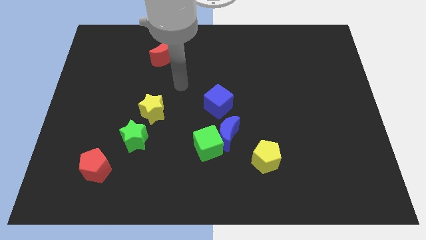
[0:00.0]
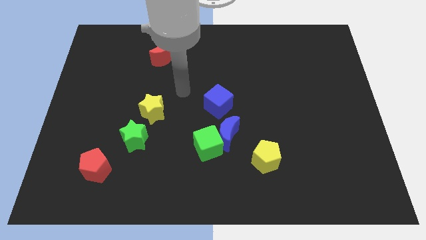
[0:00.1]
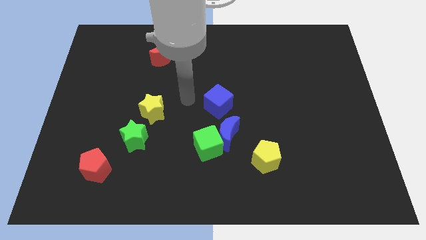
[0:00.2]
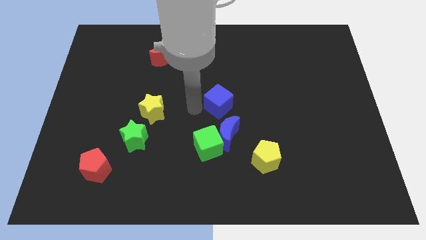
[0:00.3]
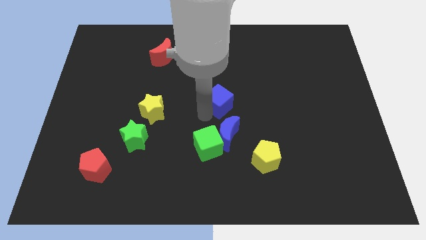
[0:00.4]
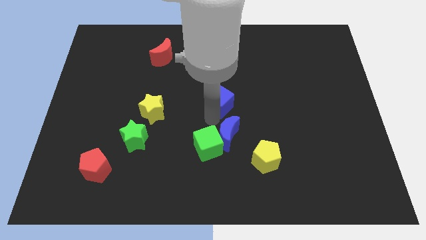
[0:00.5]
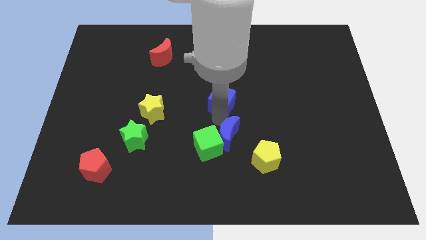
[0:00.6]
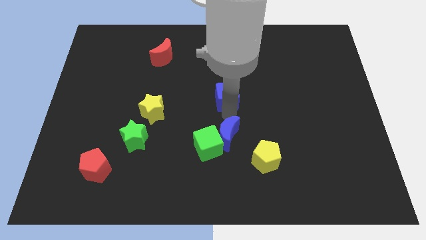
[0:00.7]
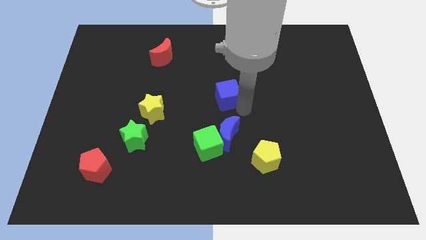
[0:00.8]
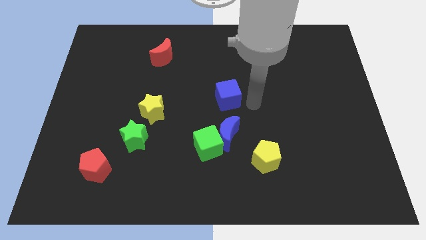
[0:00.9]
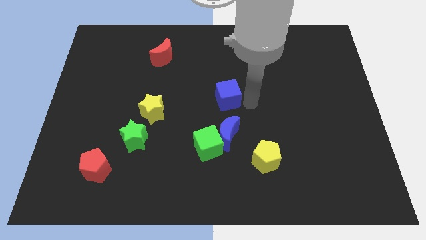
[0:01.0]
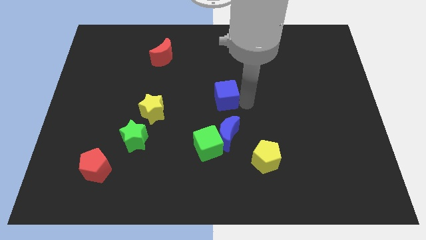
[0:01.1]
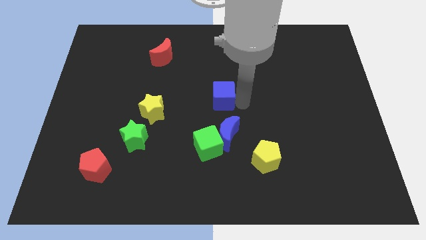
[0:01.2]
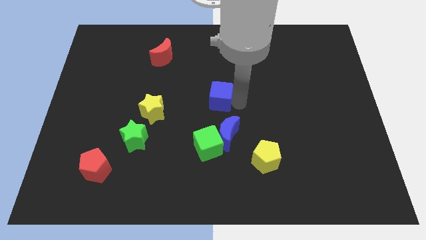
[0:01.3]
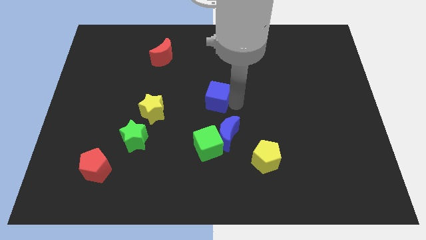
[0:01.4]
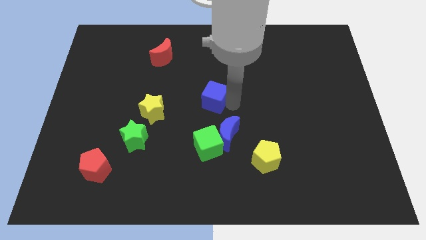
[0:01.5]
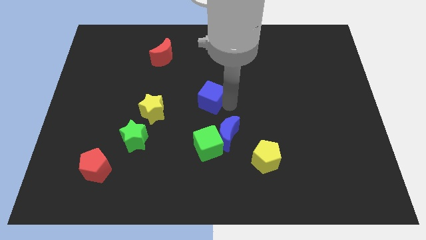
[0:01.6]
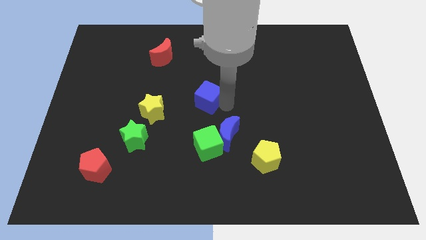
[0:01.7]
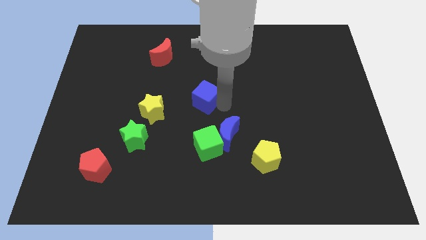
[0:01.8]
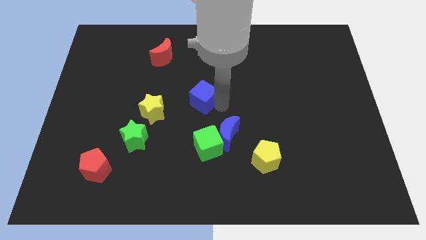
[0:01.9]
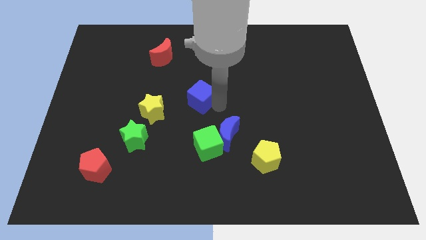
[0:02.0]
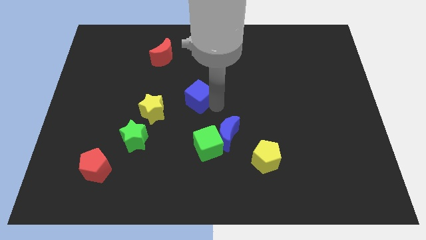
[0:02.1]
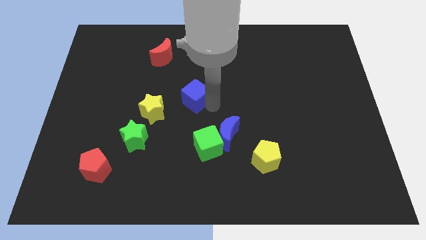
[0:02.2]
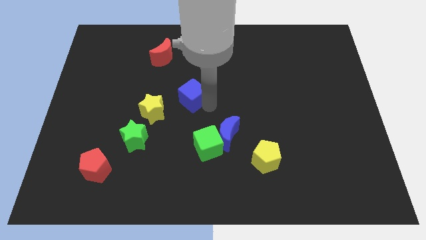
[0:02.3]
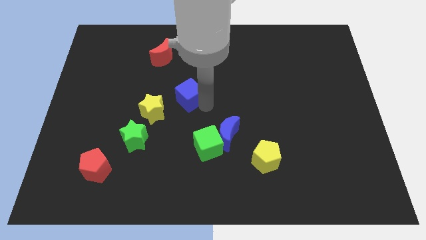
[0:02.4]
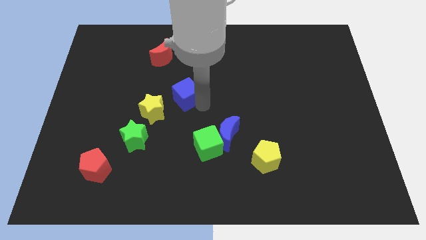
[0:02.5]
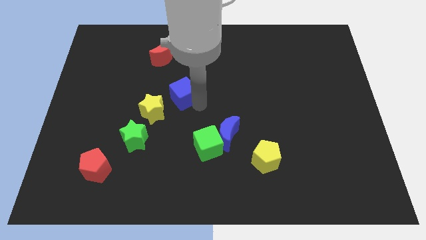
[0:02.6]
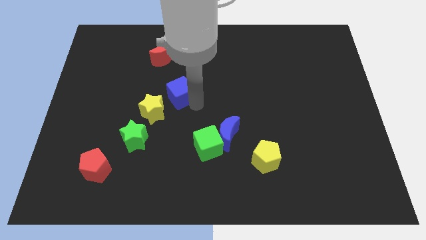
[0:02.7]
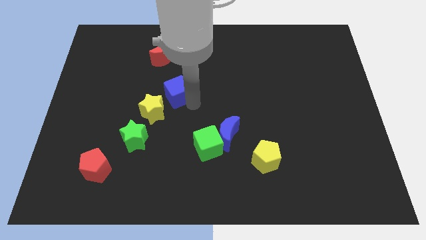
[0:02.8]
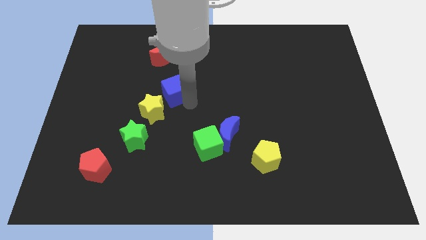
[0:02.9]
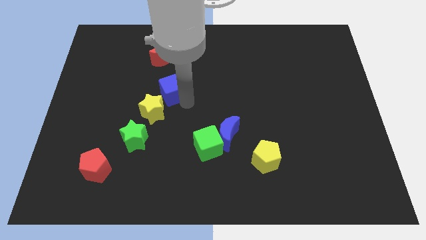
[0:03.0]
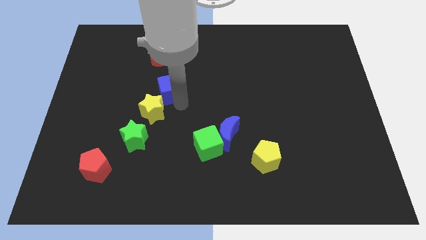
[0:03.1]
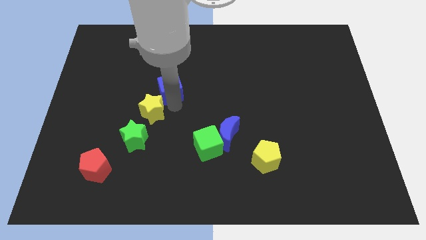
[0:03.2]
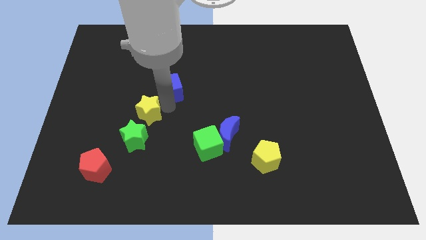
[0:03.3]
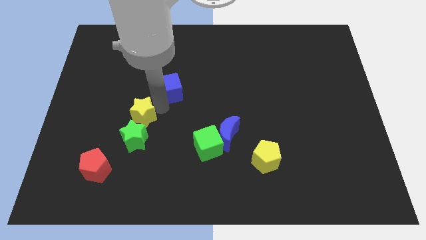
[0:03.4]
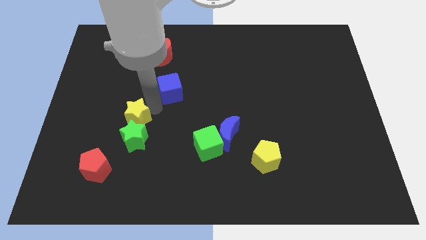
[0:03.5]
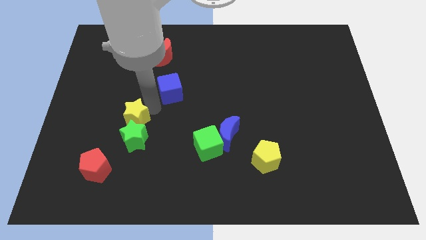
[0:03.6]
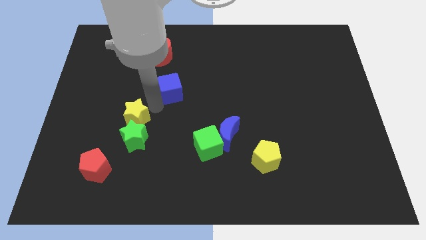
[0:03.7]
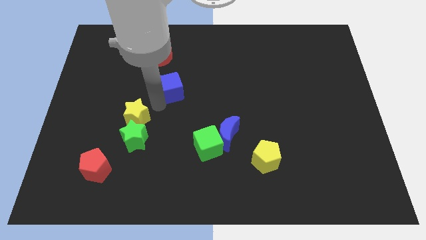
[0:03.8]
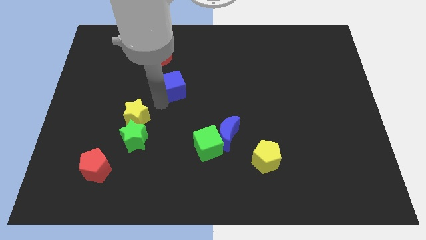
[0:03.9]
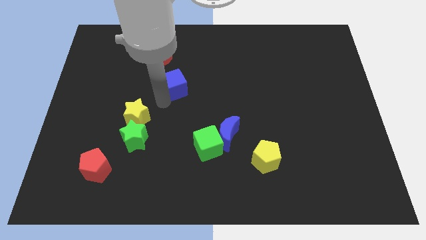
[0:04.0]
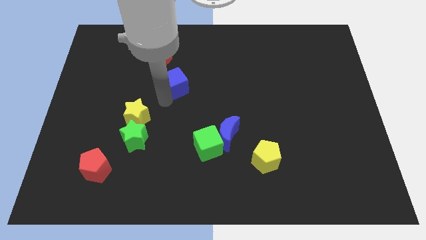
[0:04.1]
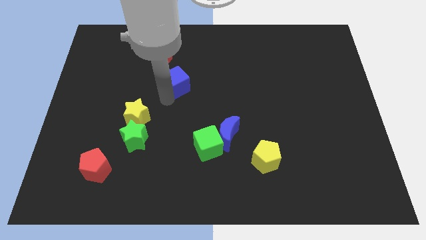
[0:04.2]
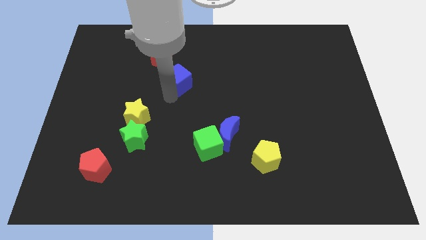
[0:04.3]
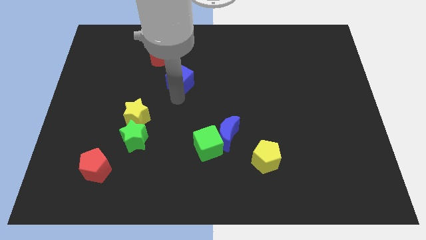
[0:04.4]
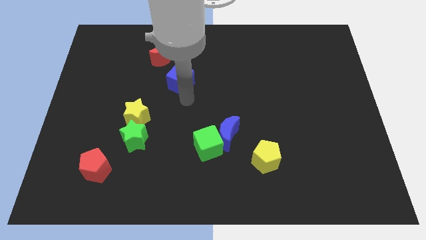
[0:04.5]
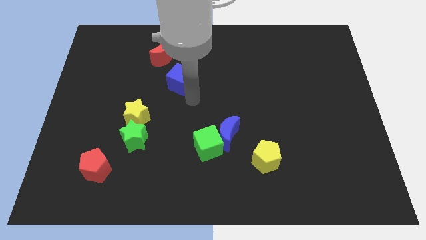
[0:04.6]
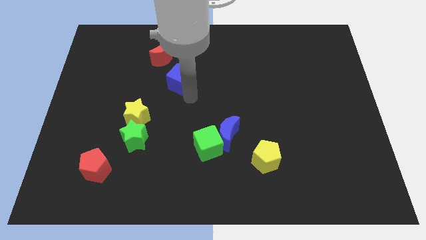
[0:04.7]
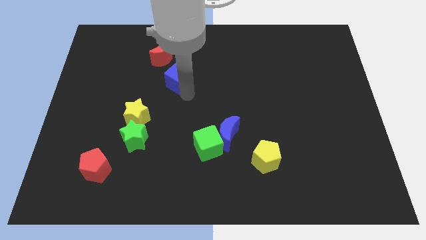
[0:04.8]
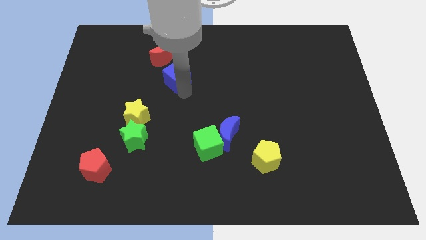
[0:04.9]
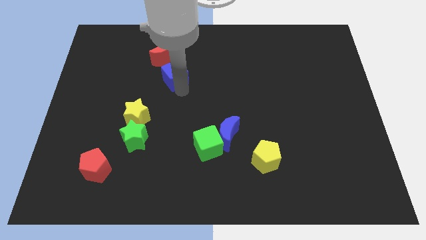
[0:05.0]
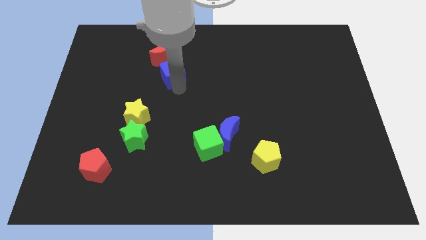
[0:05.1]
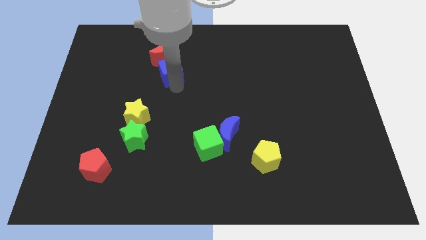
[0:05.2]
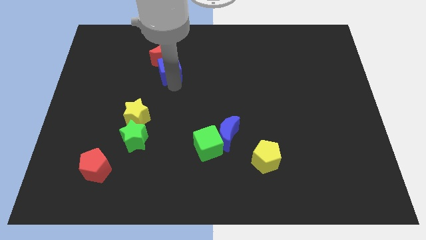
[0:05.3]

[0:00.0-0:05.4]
move the blue cube to the red moon

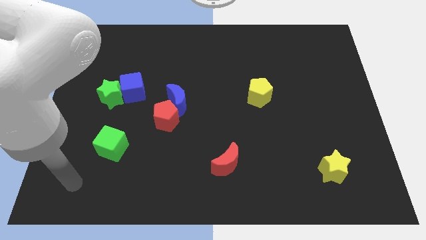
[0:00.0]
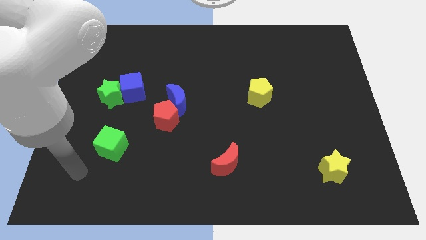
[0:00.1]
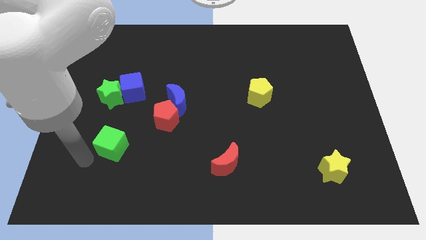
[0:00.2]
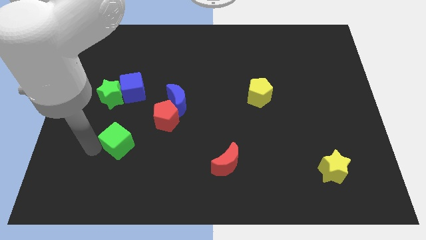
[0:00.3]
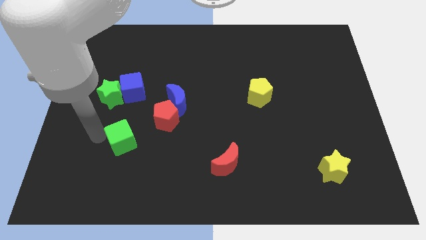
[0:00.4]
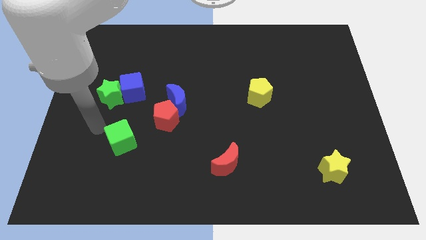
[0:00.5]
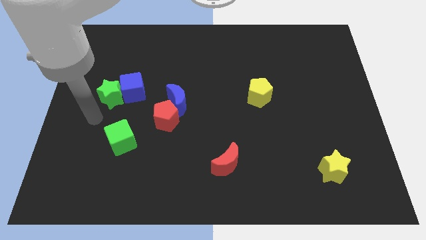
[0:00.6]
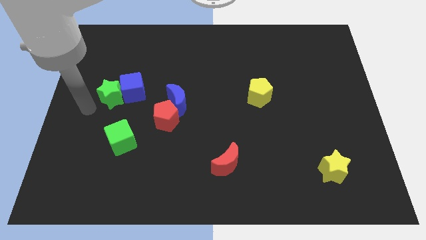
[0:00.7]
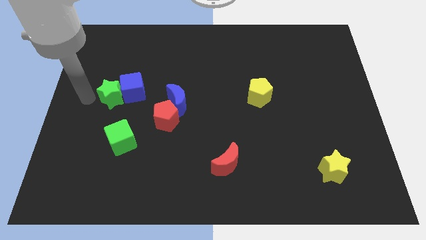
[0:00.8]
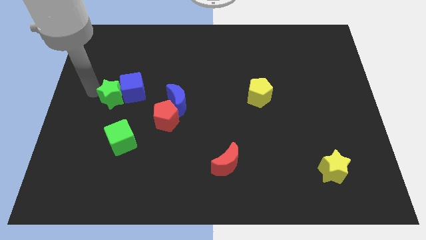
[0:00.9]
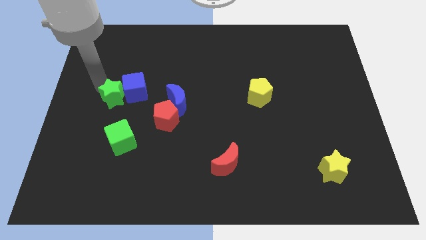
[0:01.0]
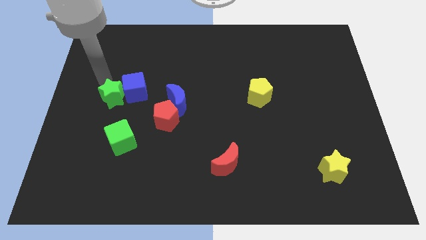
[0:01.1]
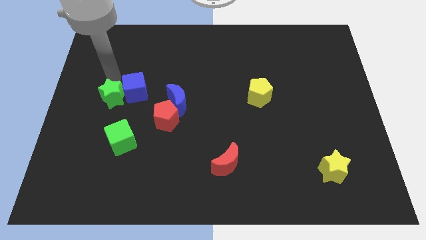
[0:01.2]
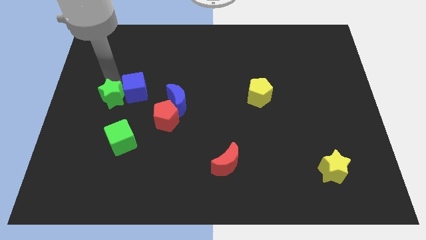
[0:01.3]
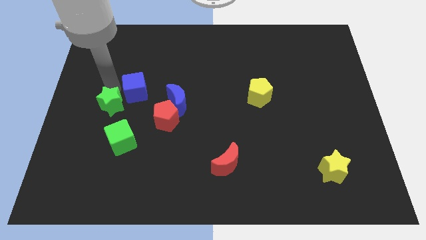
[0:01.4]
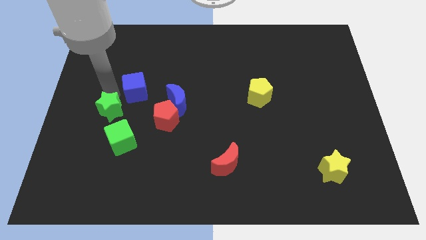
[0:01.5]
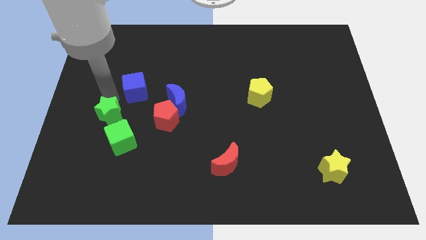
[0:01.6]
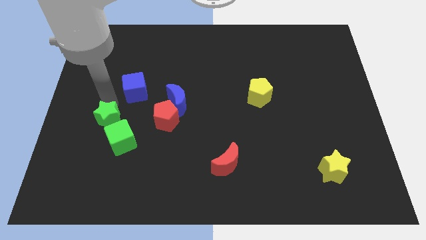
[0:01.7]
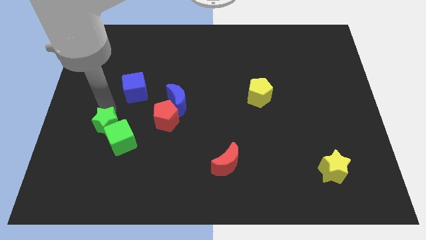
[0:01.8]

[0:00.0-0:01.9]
slide the green star towards the green cube
